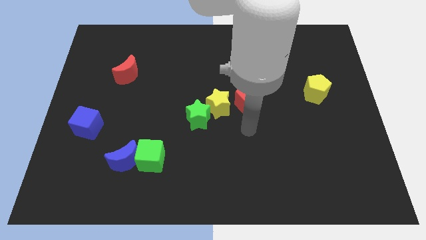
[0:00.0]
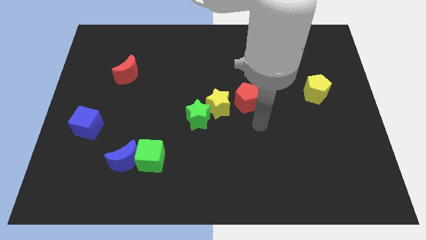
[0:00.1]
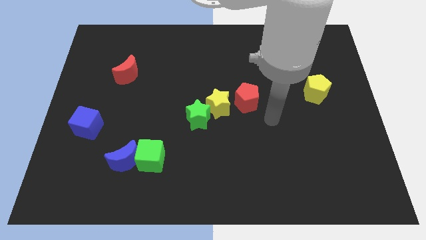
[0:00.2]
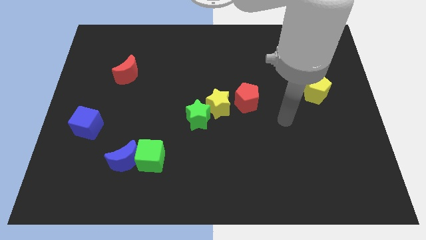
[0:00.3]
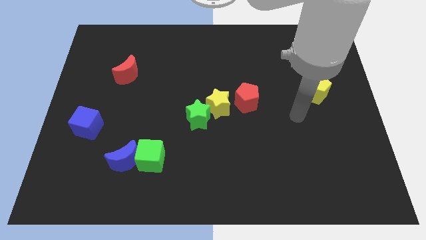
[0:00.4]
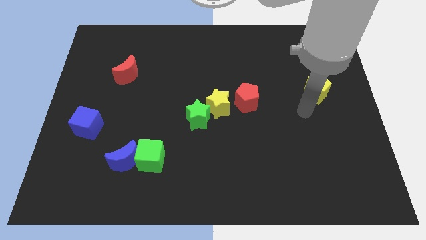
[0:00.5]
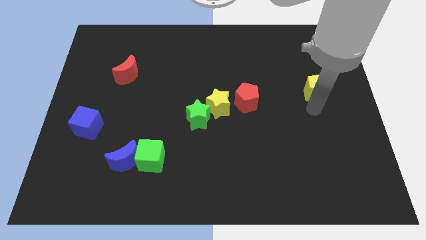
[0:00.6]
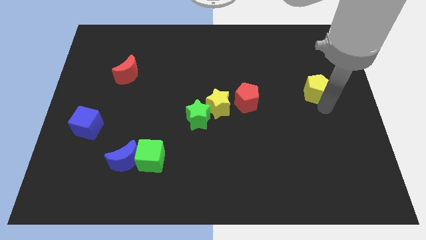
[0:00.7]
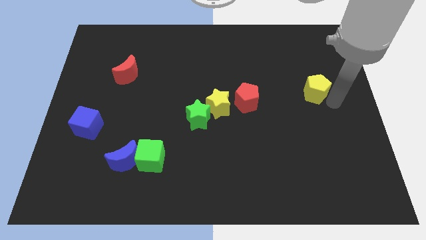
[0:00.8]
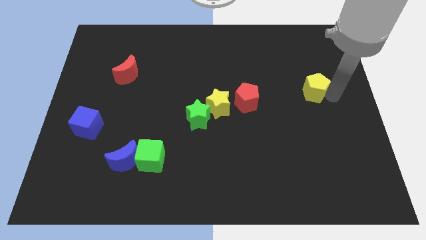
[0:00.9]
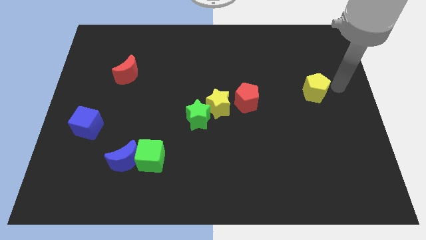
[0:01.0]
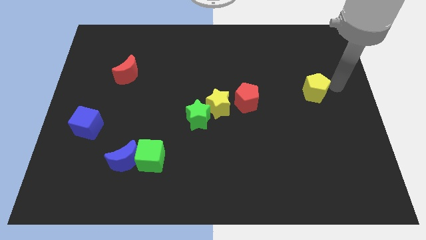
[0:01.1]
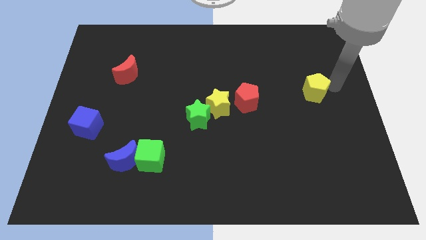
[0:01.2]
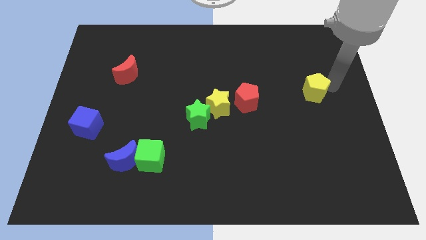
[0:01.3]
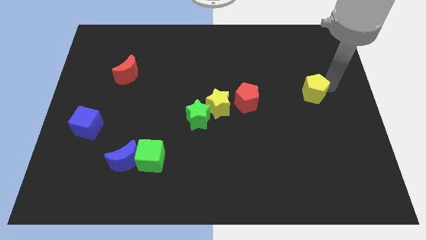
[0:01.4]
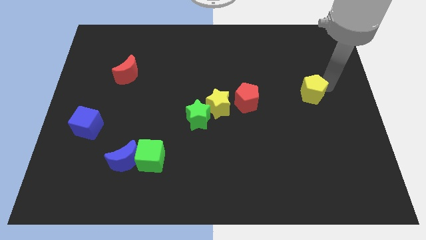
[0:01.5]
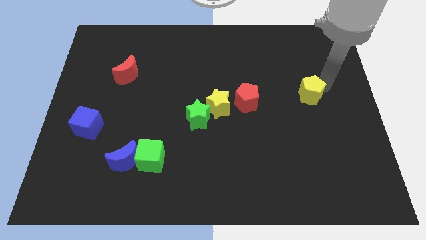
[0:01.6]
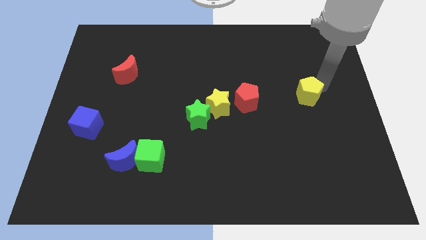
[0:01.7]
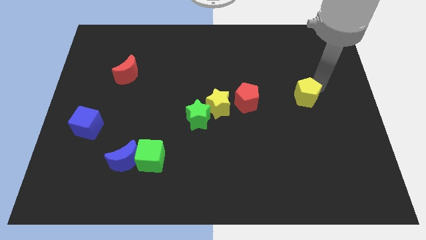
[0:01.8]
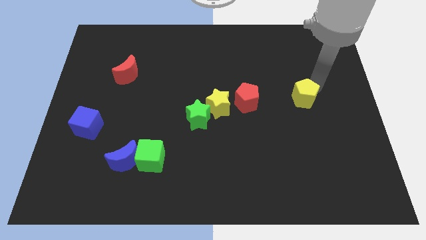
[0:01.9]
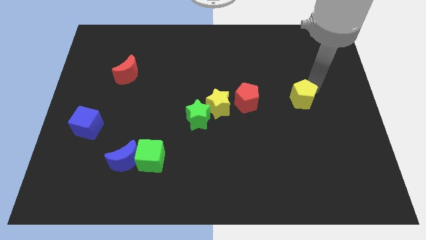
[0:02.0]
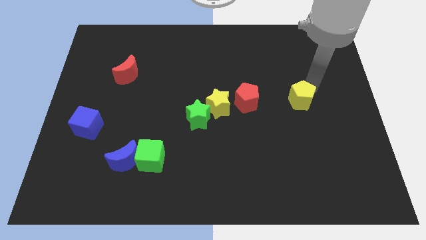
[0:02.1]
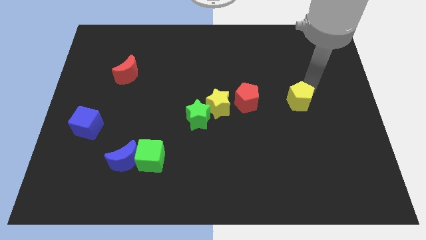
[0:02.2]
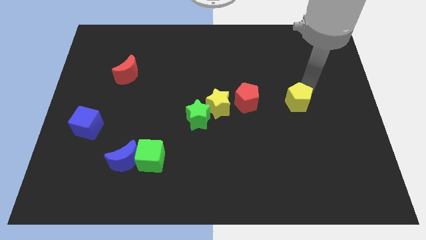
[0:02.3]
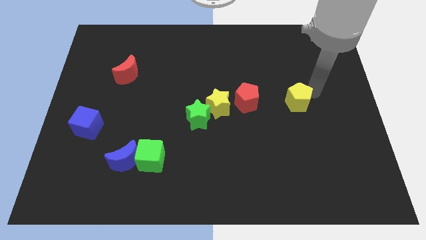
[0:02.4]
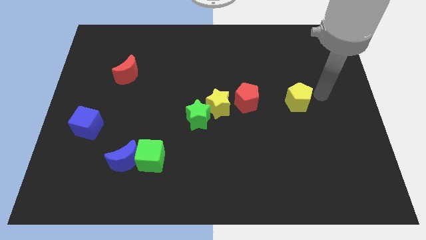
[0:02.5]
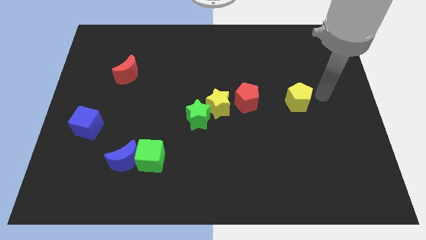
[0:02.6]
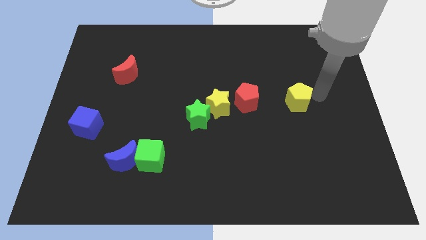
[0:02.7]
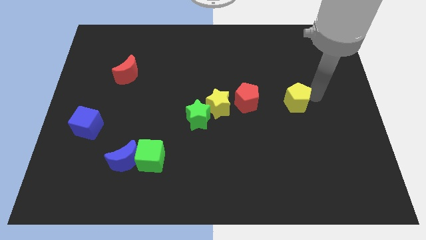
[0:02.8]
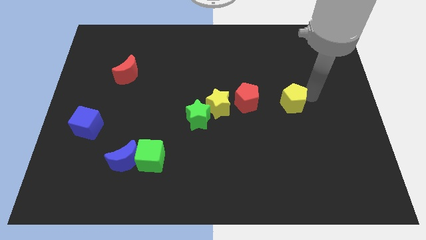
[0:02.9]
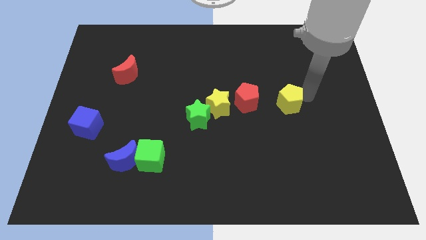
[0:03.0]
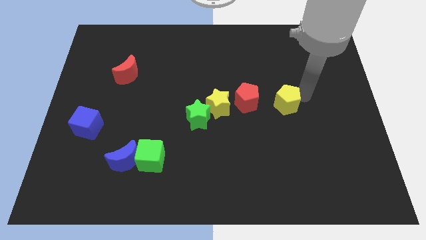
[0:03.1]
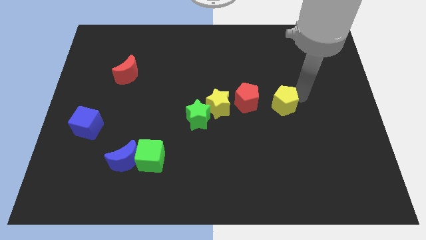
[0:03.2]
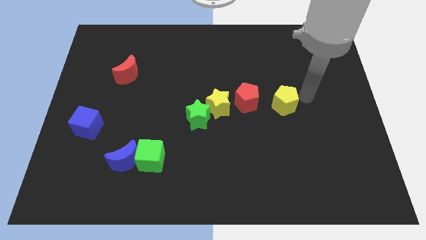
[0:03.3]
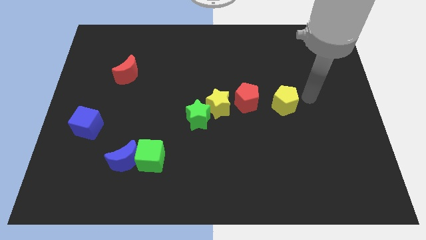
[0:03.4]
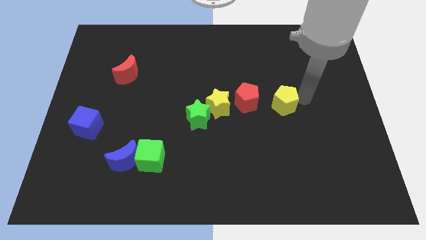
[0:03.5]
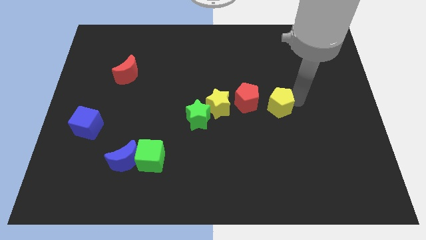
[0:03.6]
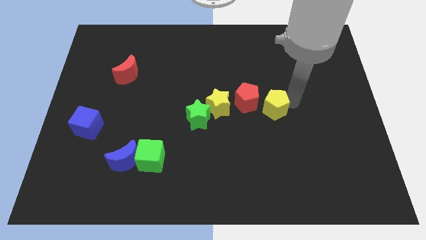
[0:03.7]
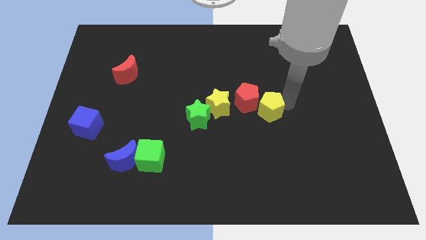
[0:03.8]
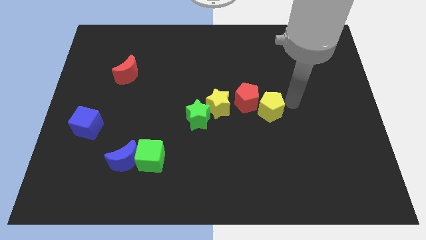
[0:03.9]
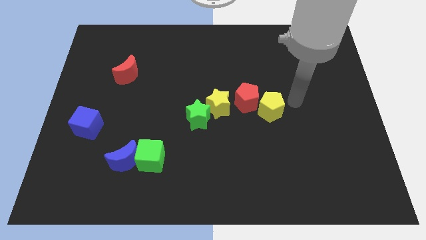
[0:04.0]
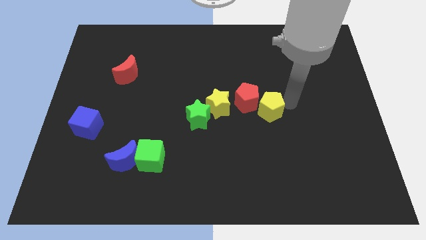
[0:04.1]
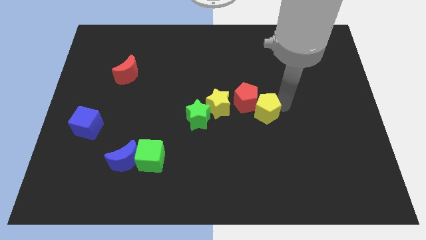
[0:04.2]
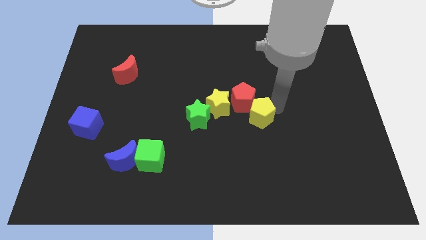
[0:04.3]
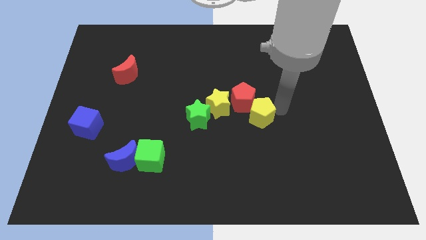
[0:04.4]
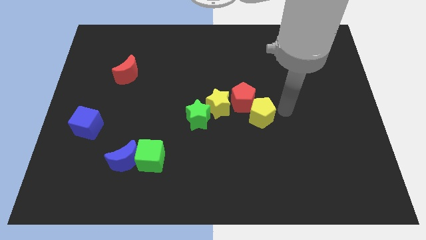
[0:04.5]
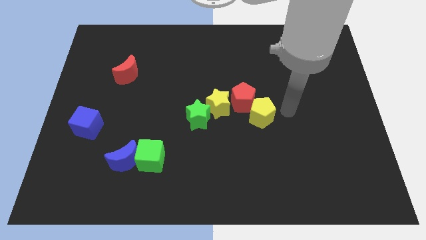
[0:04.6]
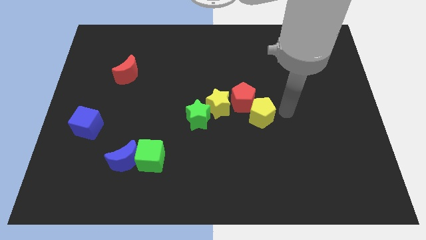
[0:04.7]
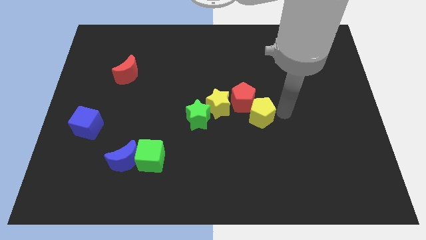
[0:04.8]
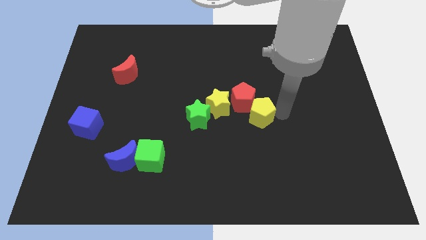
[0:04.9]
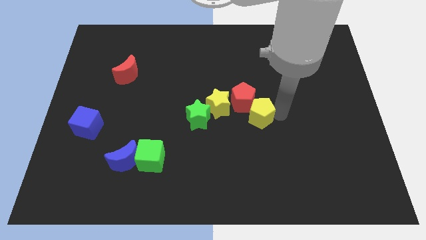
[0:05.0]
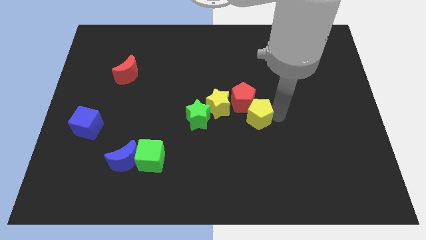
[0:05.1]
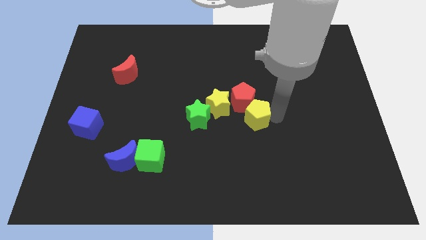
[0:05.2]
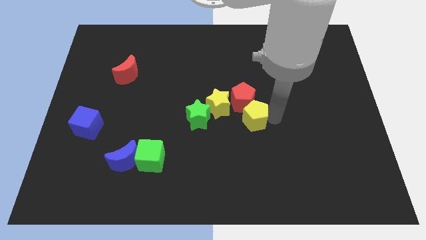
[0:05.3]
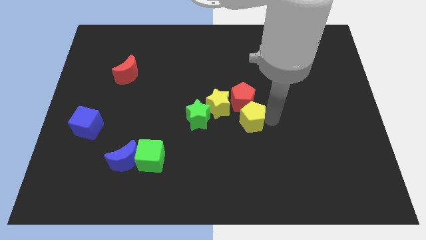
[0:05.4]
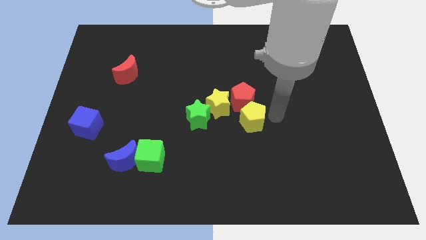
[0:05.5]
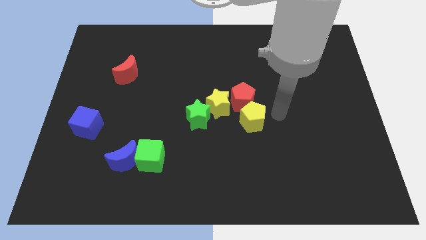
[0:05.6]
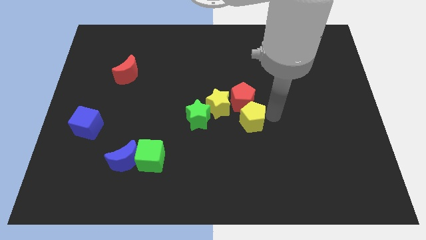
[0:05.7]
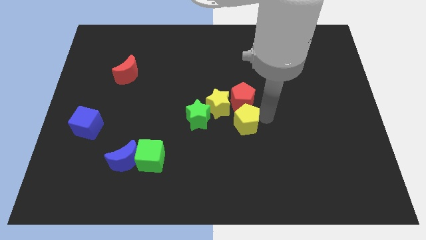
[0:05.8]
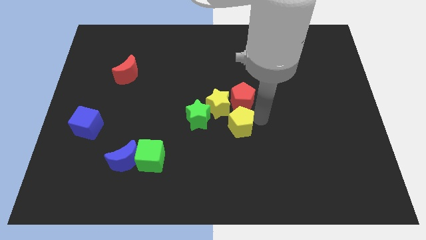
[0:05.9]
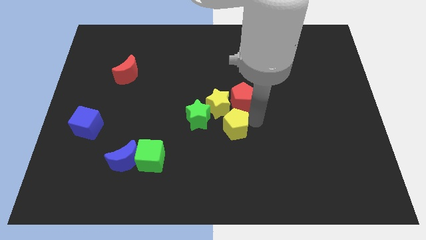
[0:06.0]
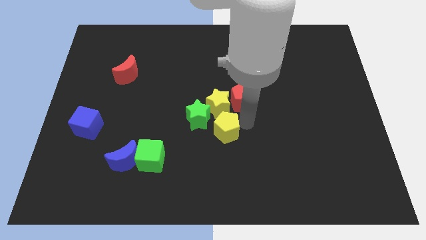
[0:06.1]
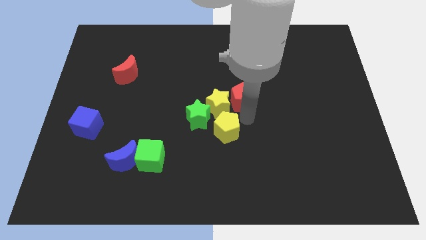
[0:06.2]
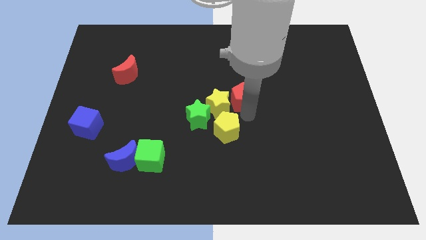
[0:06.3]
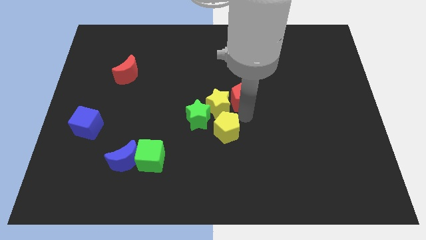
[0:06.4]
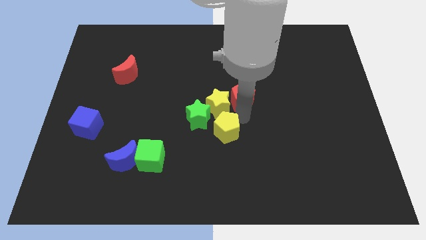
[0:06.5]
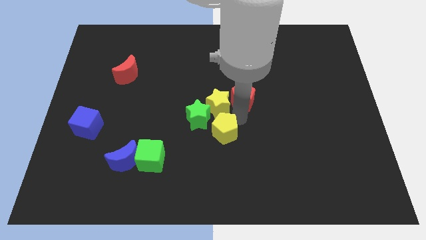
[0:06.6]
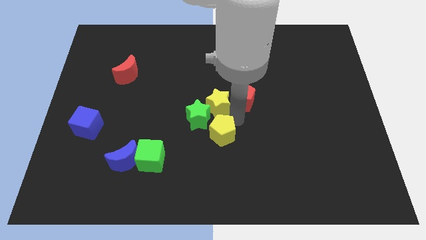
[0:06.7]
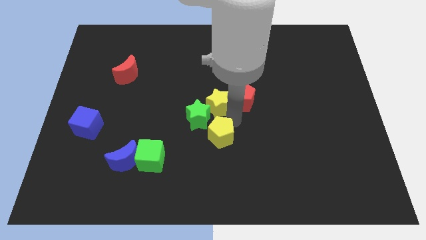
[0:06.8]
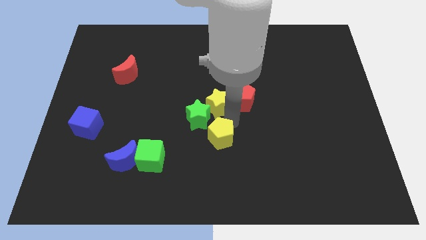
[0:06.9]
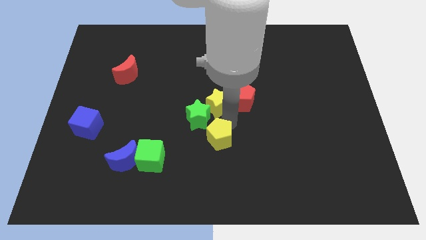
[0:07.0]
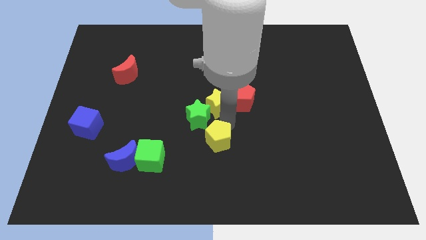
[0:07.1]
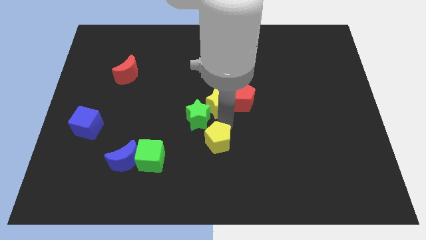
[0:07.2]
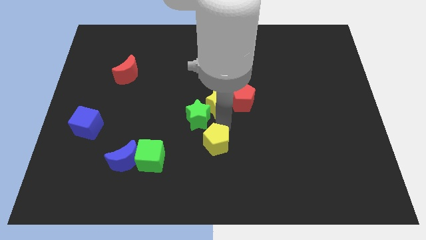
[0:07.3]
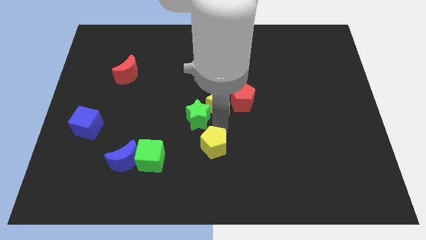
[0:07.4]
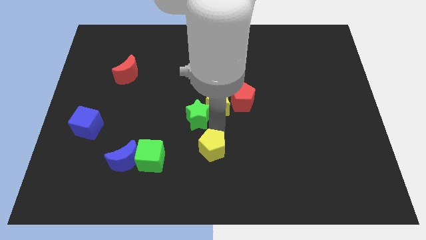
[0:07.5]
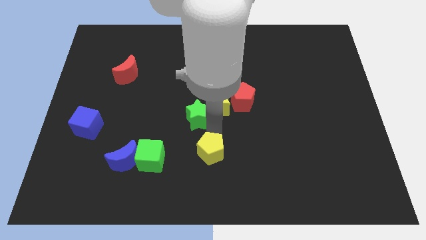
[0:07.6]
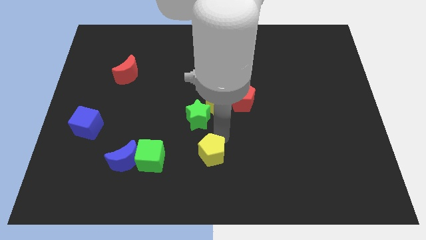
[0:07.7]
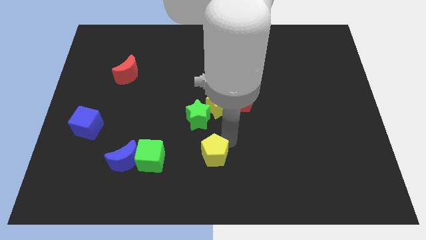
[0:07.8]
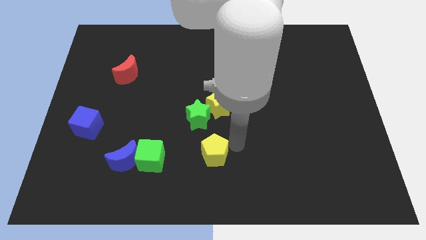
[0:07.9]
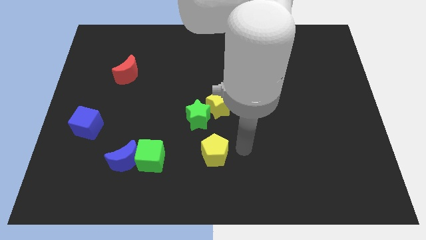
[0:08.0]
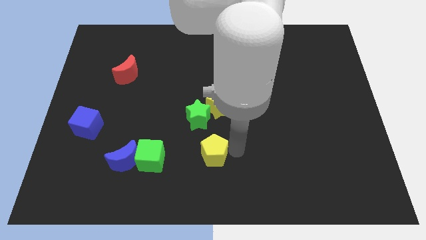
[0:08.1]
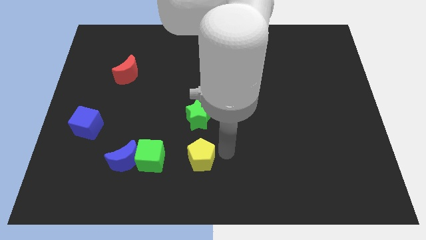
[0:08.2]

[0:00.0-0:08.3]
put the yellow pentagon just right of the blue moon
